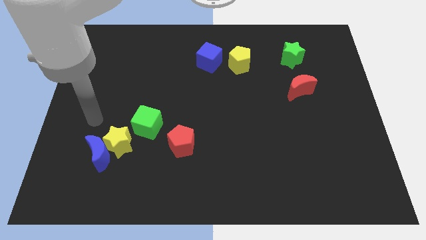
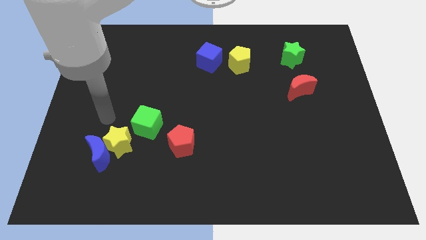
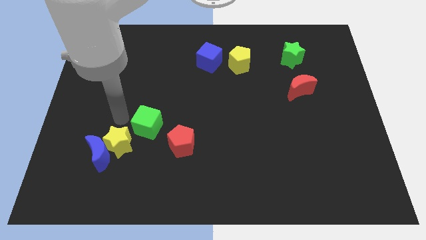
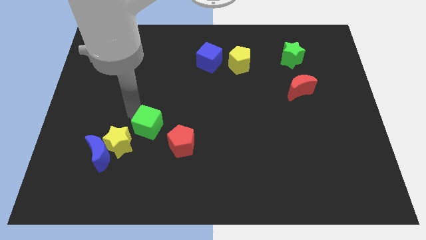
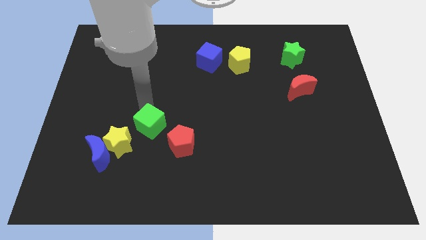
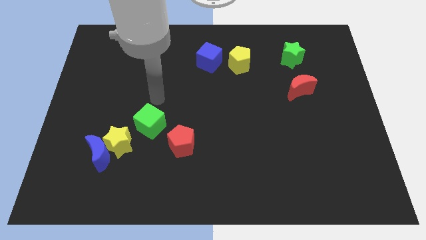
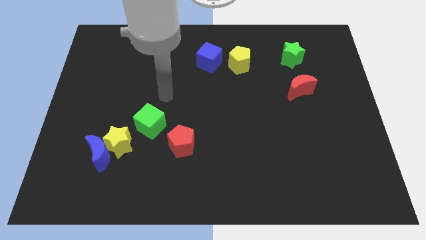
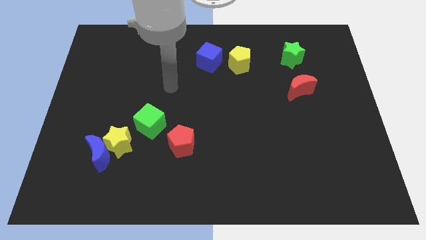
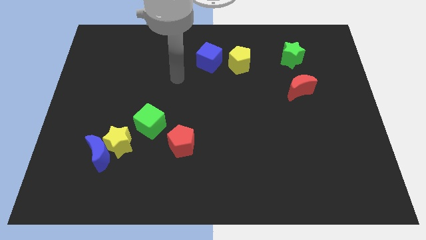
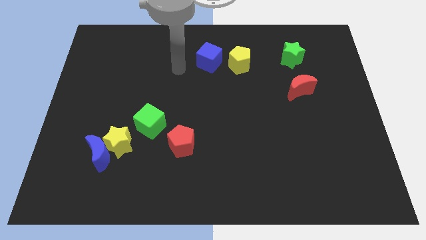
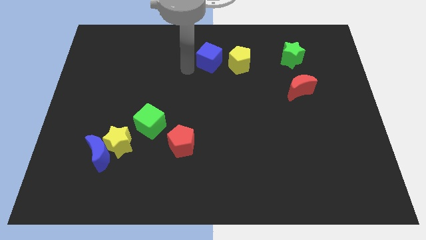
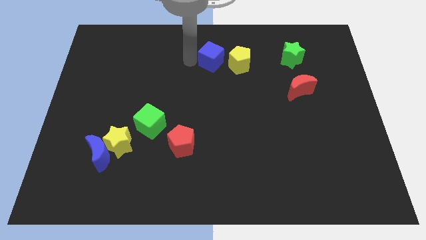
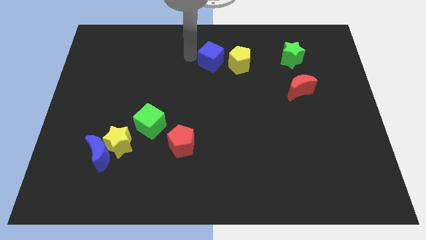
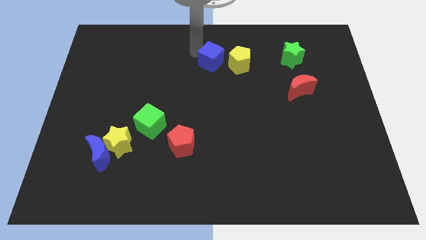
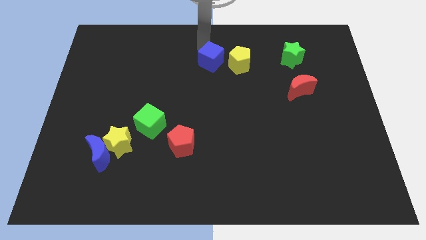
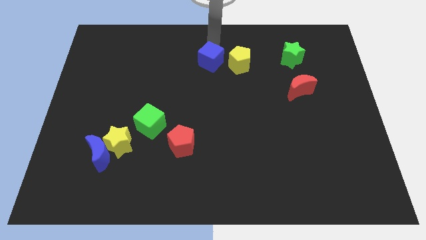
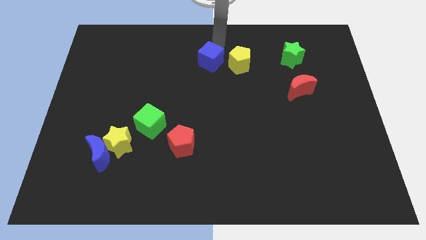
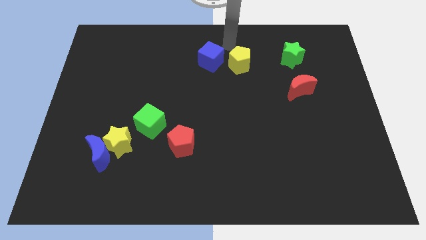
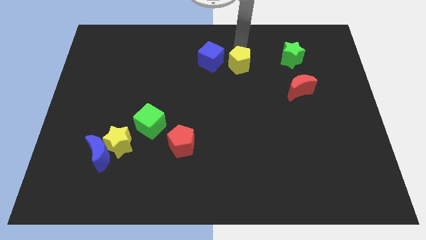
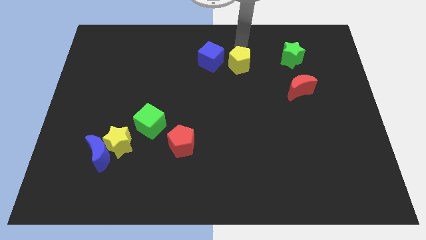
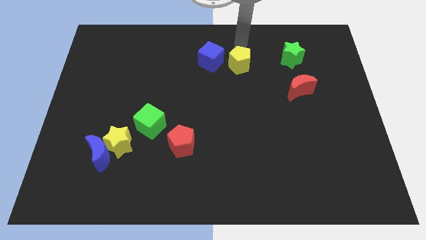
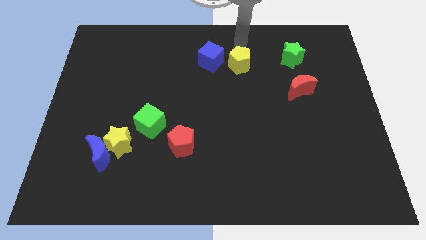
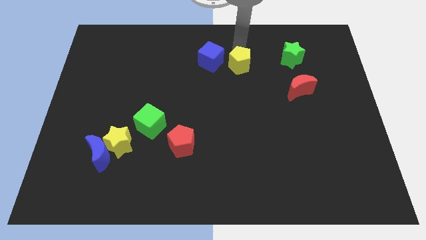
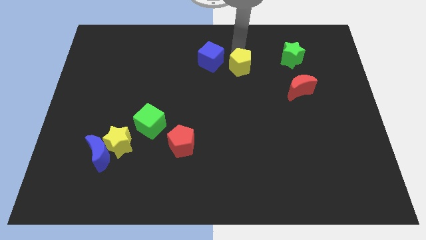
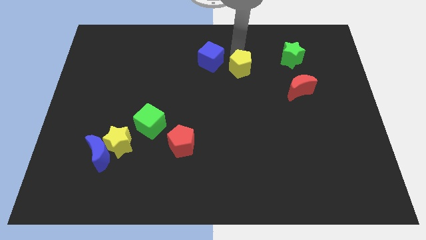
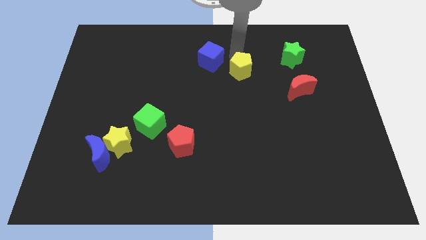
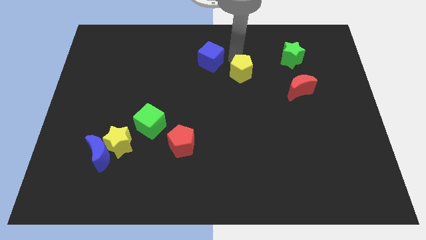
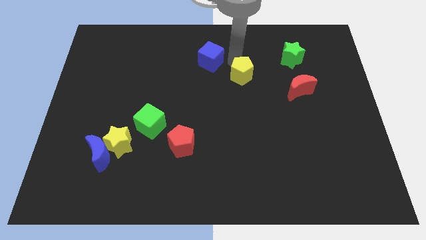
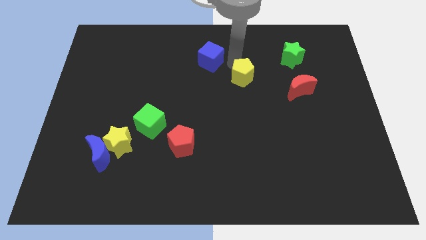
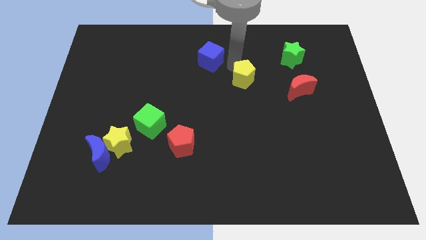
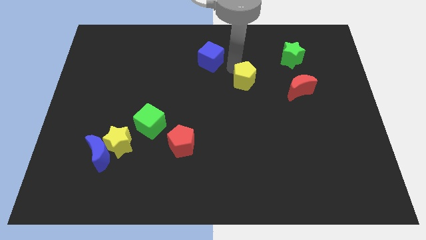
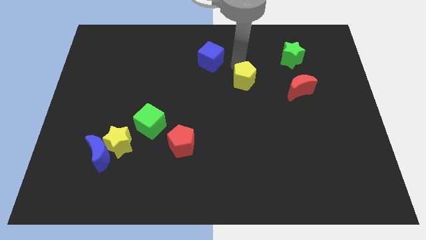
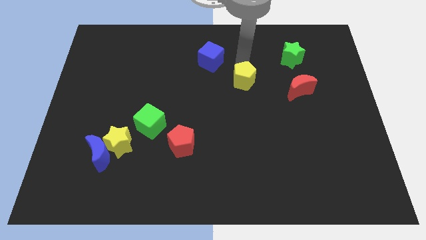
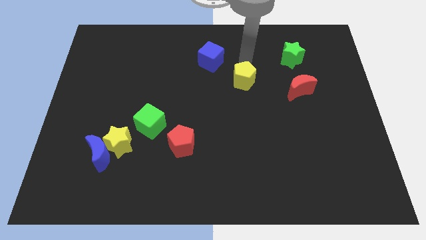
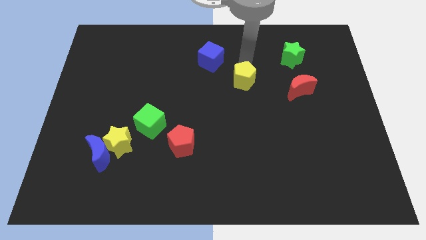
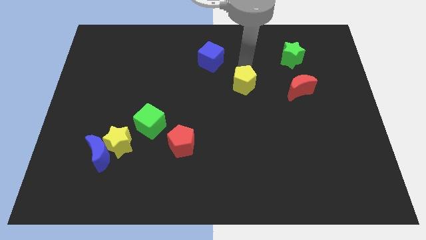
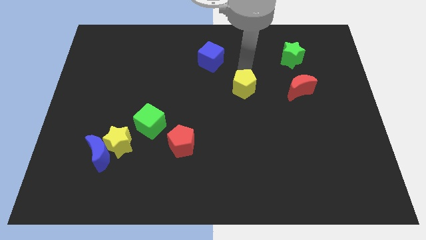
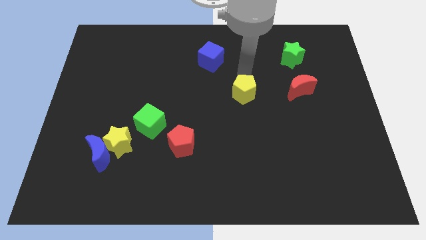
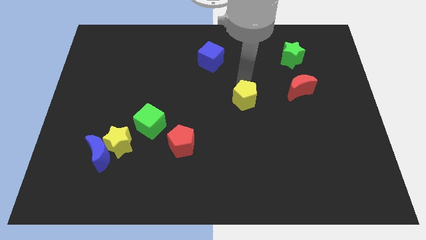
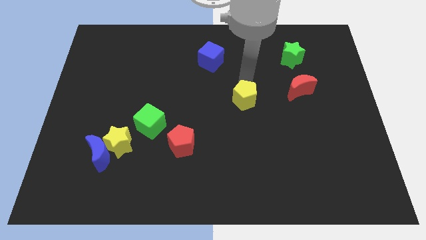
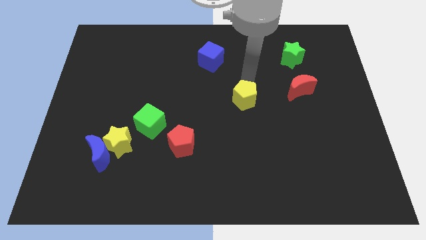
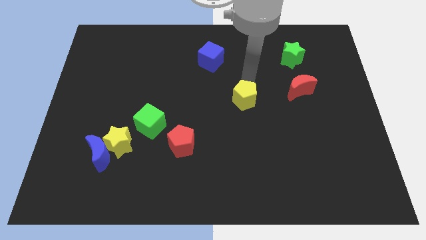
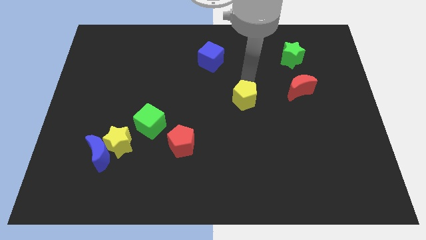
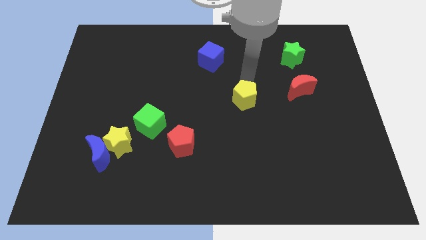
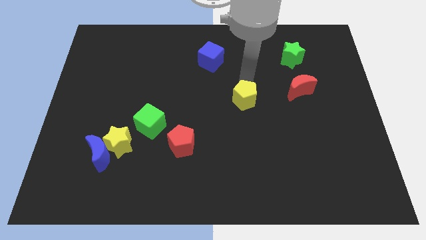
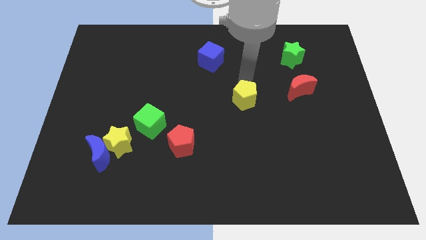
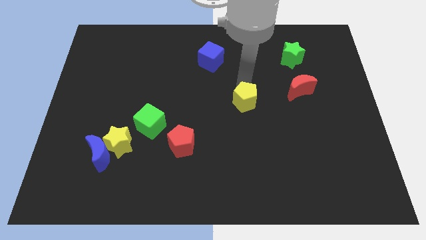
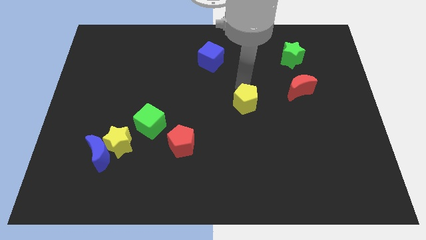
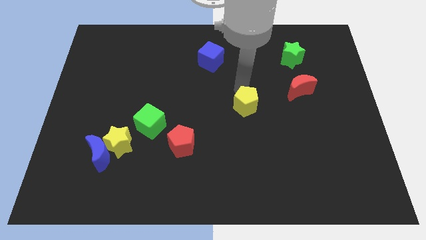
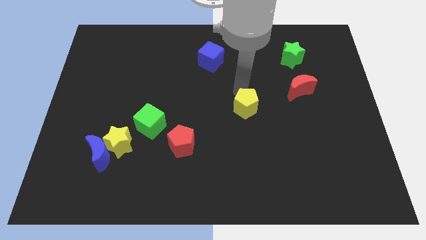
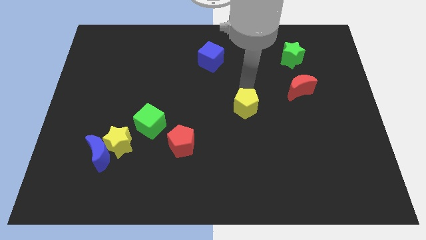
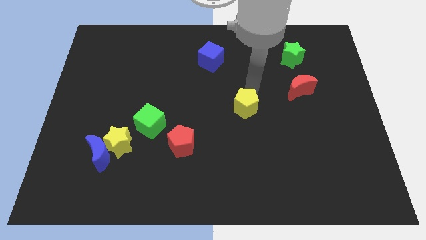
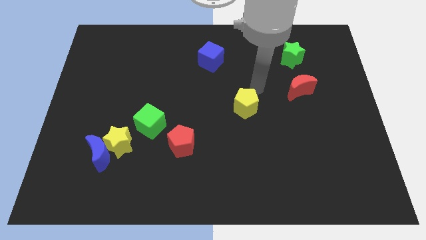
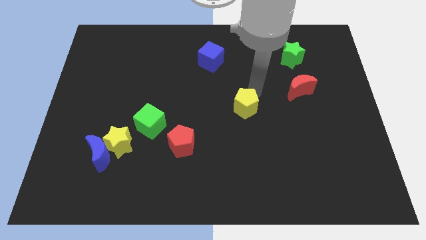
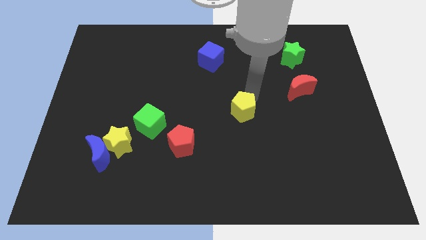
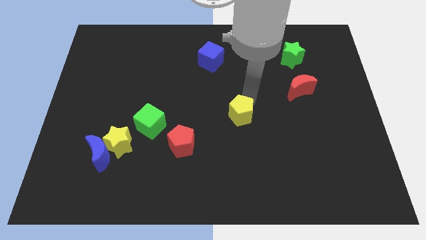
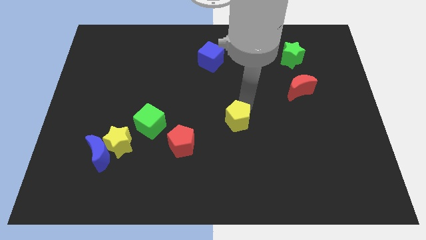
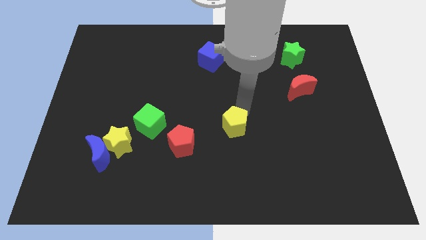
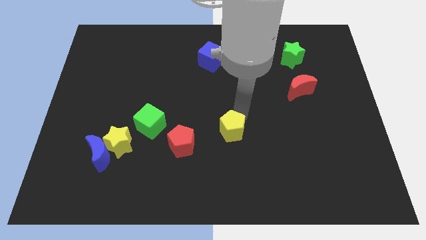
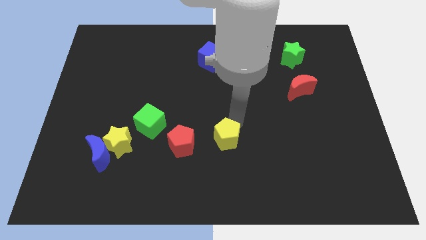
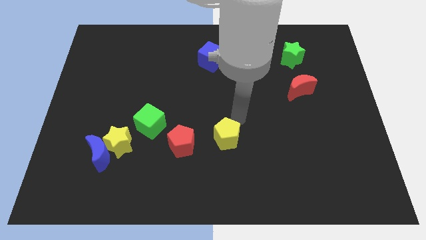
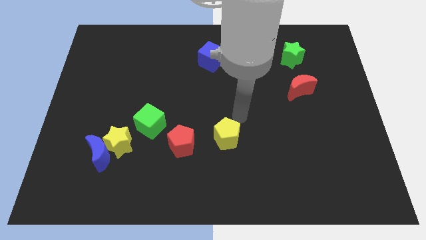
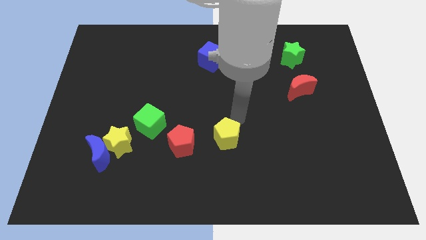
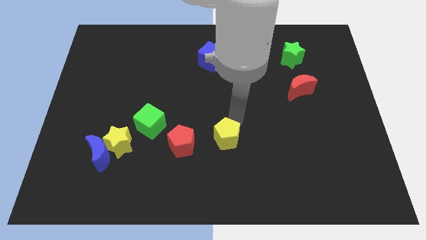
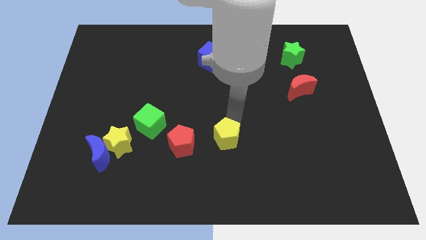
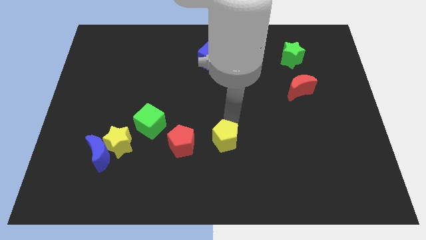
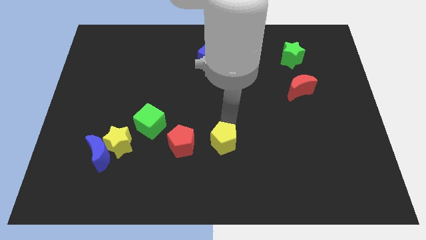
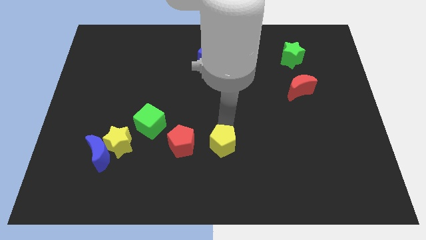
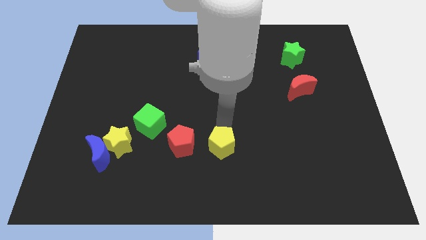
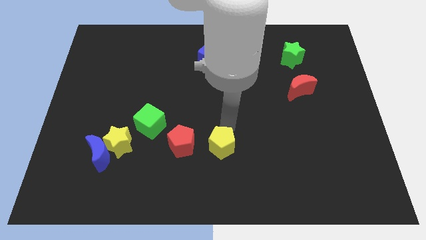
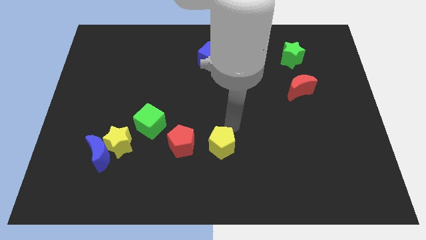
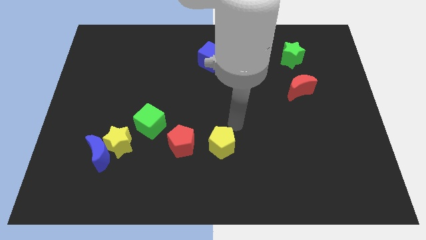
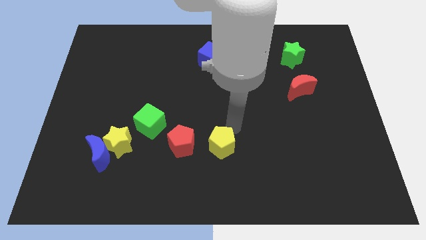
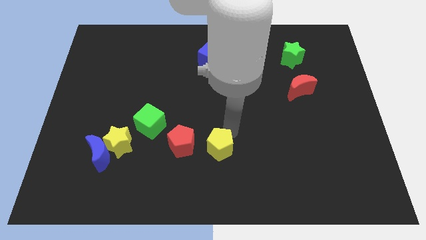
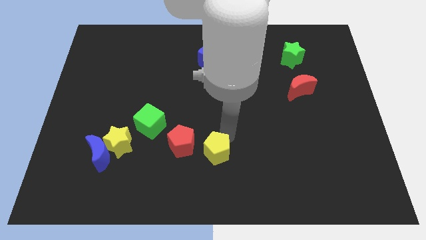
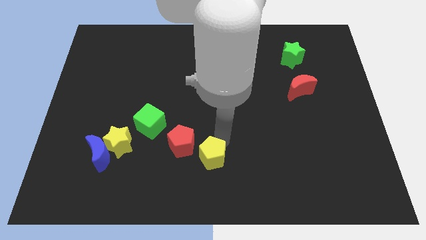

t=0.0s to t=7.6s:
push the yellow pentagon to the bottom side
